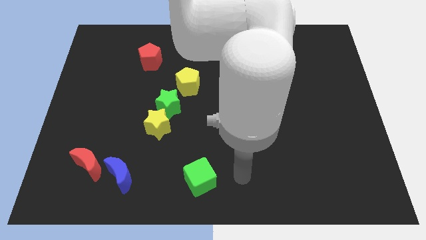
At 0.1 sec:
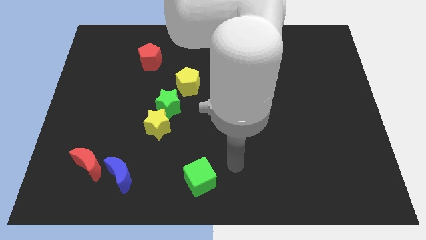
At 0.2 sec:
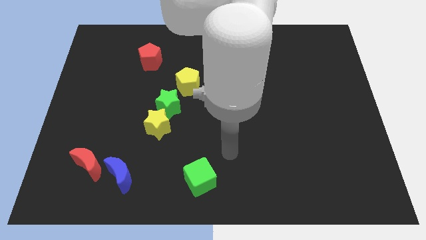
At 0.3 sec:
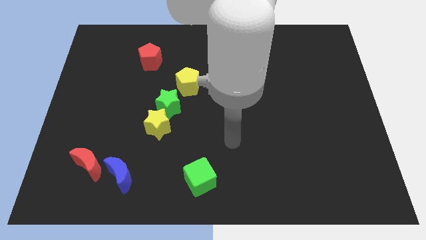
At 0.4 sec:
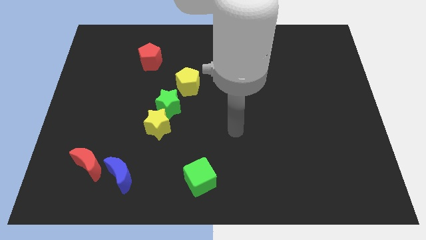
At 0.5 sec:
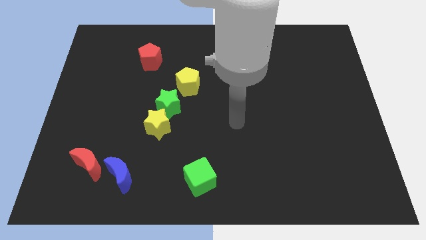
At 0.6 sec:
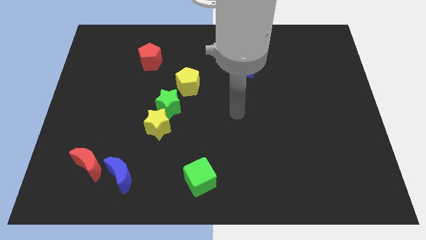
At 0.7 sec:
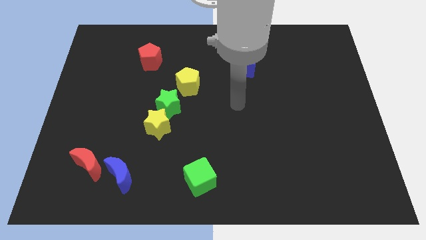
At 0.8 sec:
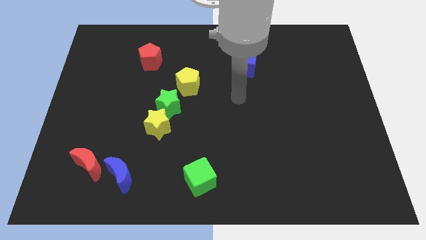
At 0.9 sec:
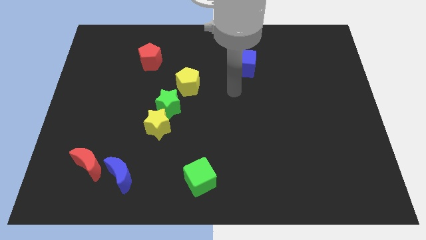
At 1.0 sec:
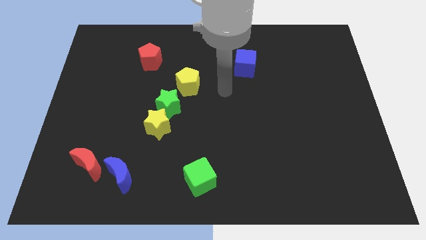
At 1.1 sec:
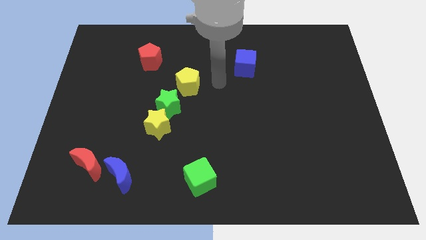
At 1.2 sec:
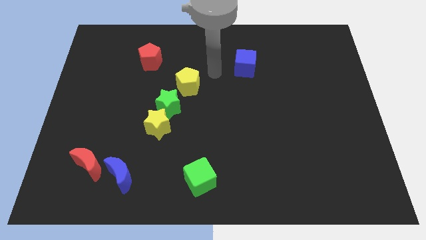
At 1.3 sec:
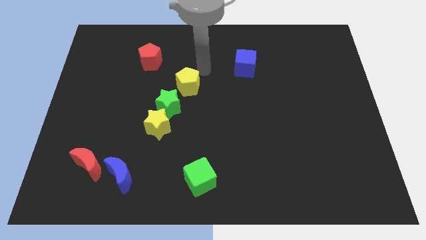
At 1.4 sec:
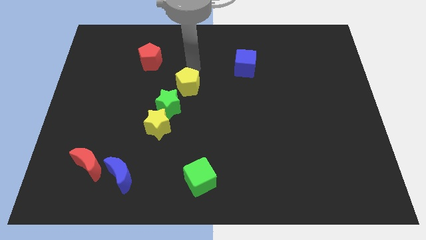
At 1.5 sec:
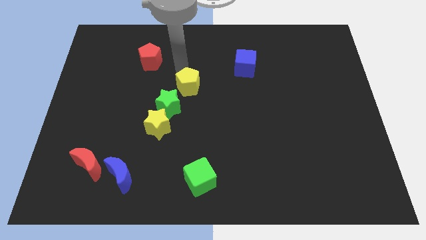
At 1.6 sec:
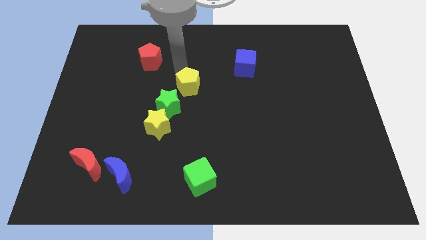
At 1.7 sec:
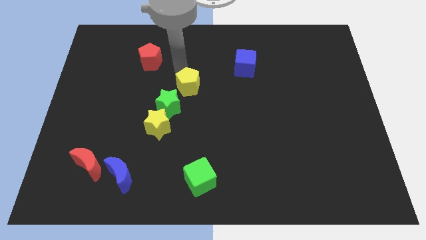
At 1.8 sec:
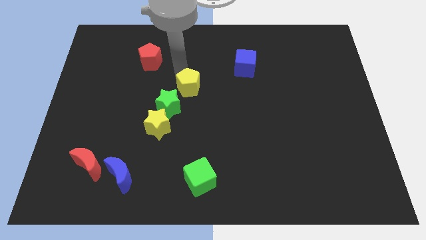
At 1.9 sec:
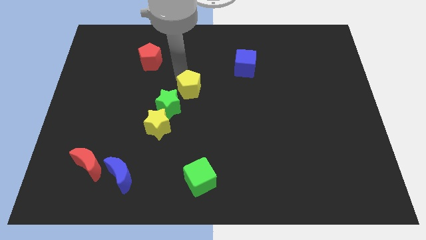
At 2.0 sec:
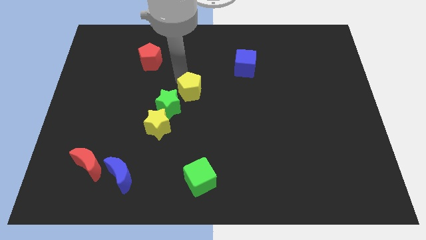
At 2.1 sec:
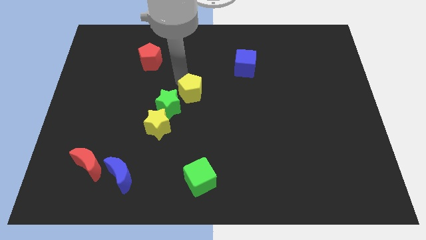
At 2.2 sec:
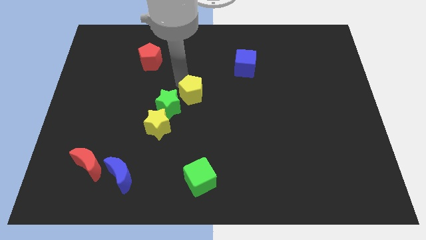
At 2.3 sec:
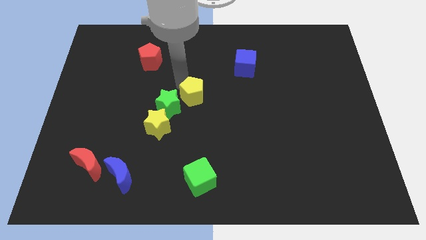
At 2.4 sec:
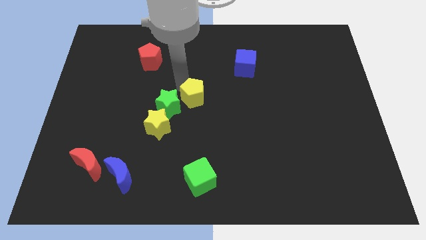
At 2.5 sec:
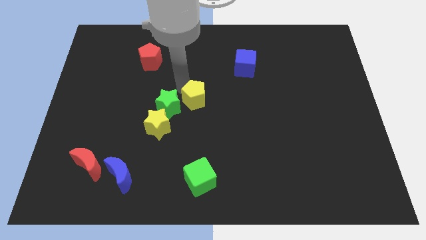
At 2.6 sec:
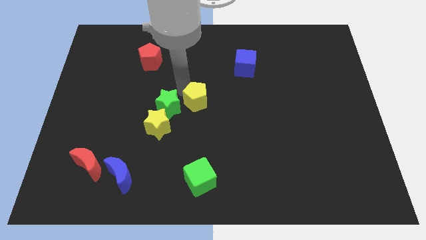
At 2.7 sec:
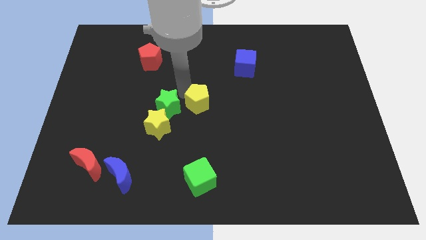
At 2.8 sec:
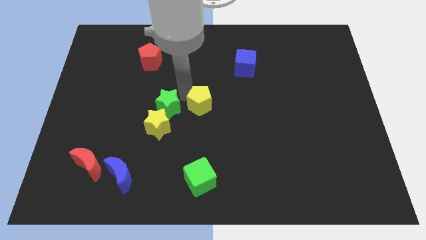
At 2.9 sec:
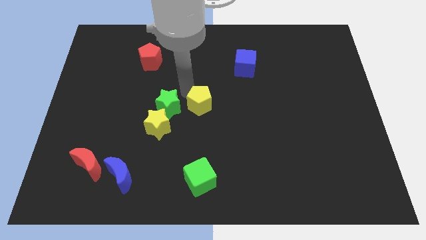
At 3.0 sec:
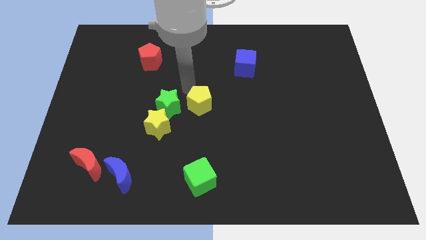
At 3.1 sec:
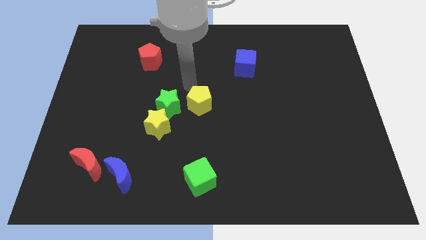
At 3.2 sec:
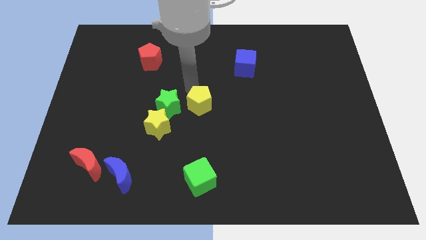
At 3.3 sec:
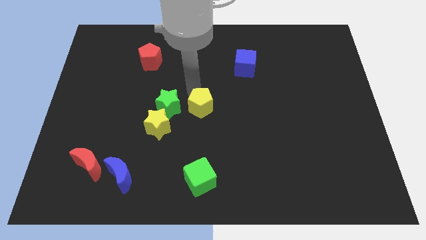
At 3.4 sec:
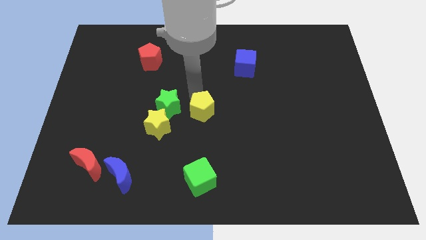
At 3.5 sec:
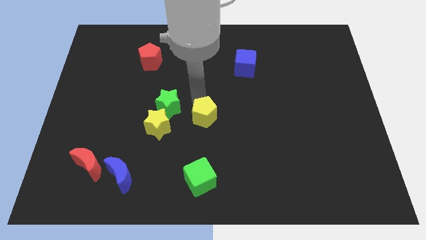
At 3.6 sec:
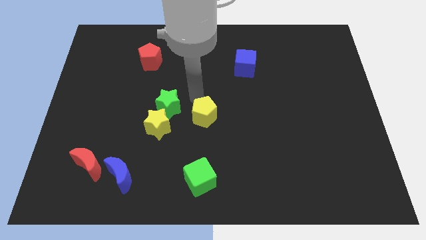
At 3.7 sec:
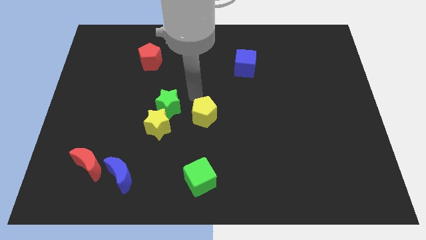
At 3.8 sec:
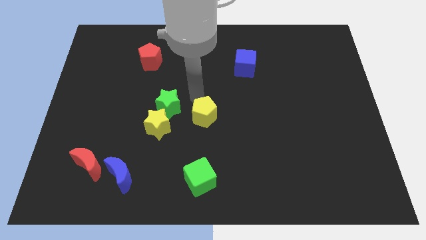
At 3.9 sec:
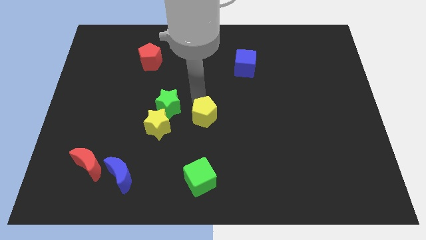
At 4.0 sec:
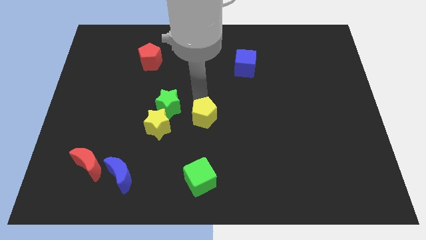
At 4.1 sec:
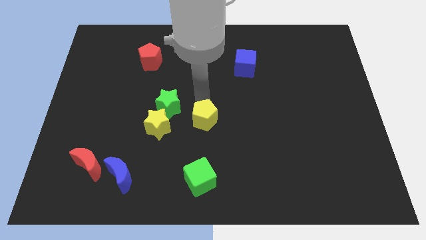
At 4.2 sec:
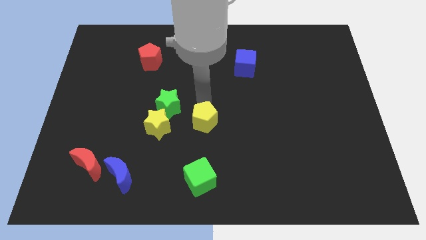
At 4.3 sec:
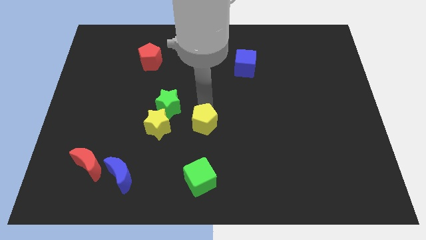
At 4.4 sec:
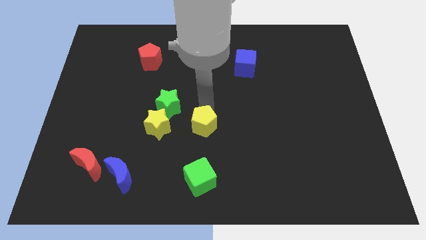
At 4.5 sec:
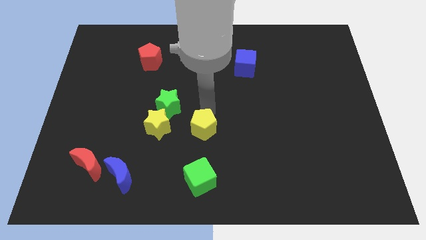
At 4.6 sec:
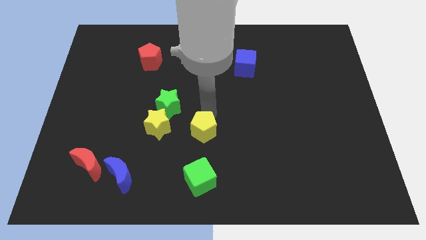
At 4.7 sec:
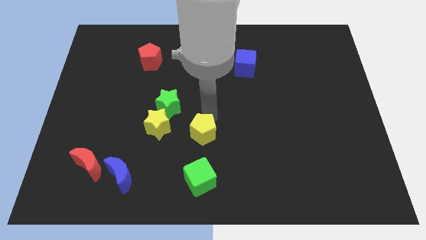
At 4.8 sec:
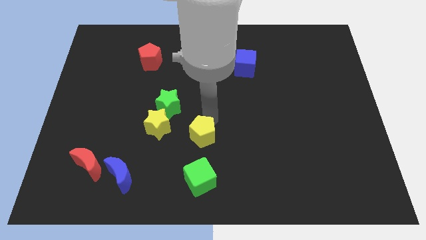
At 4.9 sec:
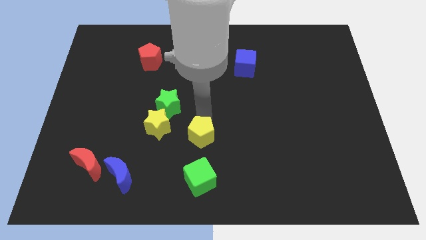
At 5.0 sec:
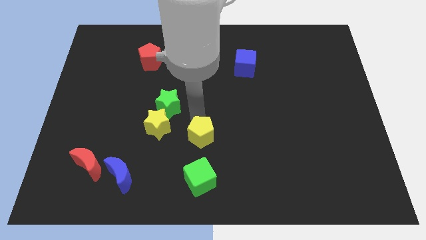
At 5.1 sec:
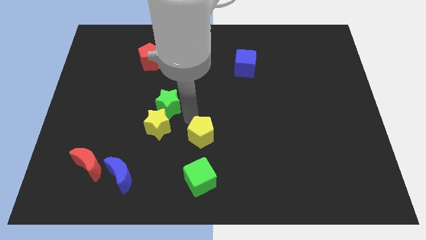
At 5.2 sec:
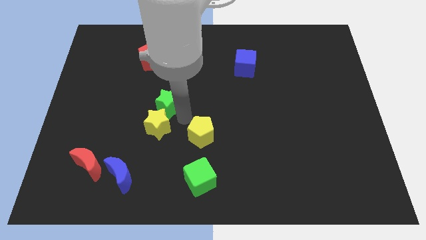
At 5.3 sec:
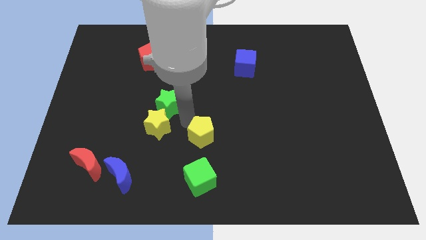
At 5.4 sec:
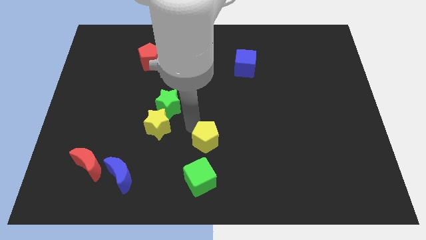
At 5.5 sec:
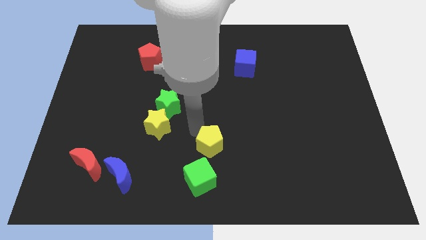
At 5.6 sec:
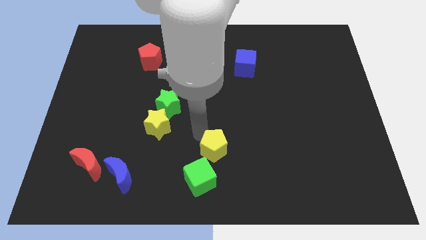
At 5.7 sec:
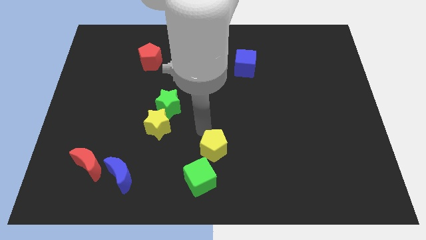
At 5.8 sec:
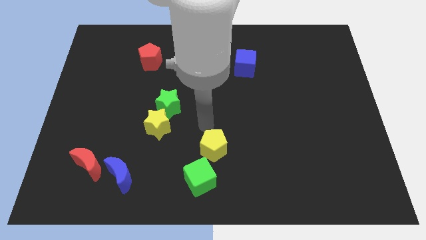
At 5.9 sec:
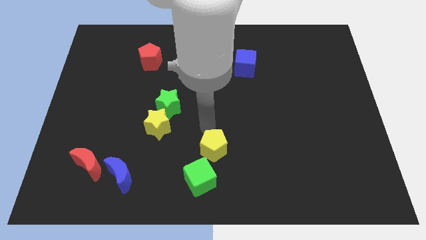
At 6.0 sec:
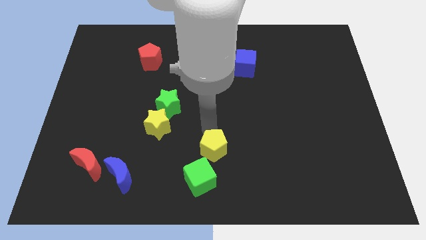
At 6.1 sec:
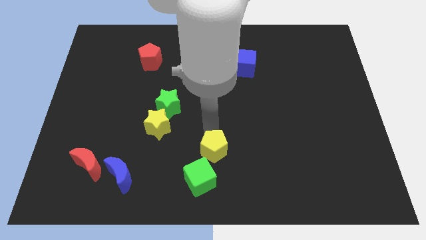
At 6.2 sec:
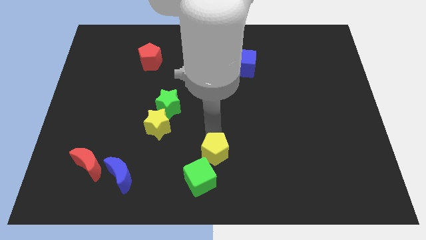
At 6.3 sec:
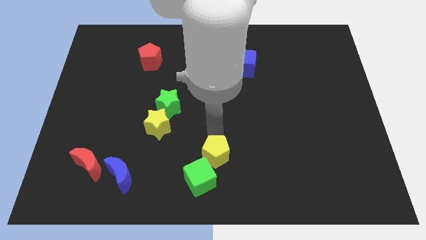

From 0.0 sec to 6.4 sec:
put the yellow pentagon to the bottom side
